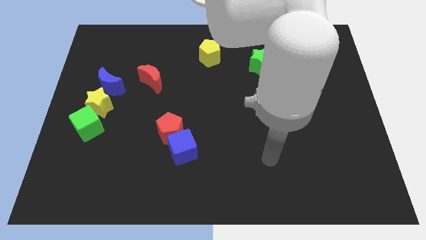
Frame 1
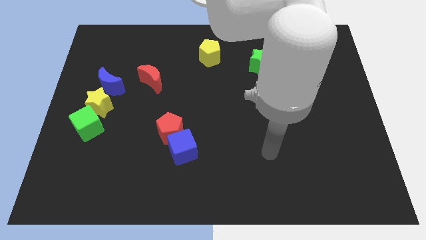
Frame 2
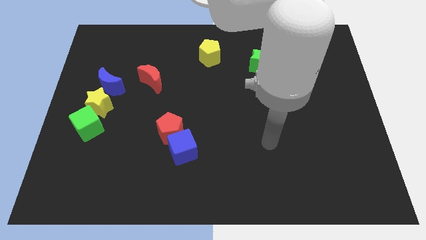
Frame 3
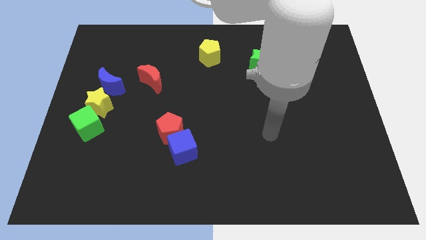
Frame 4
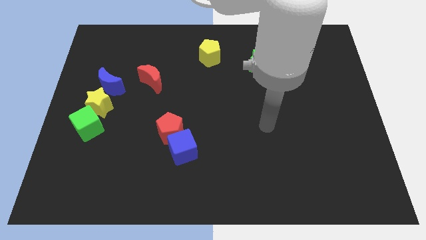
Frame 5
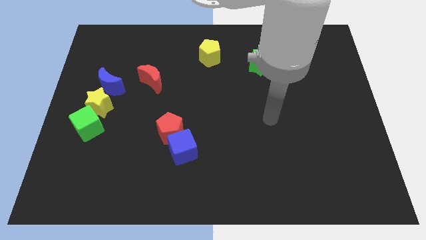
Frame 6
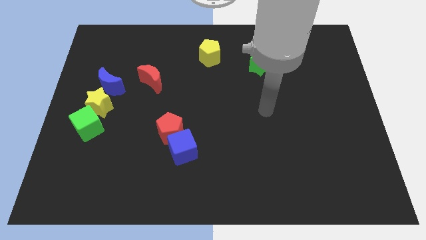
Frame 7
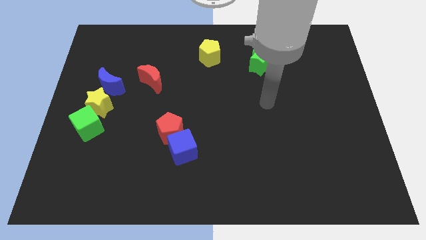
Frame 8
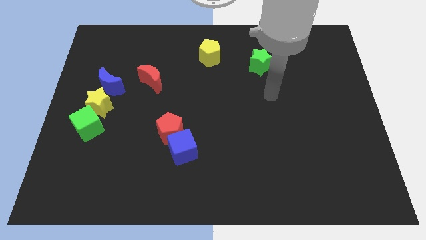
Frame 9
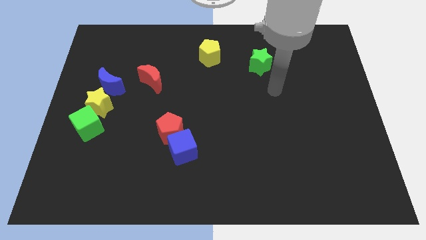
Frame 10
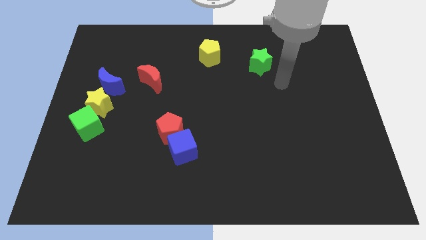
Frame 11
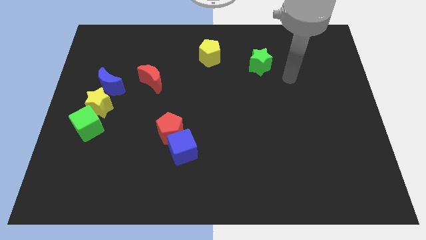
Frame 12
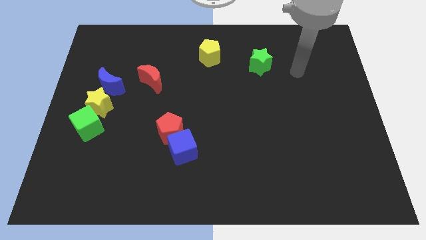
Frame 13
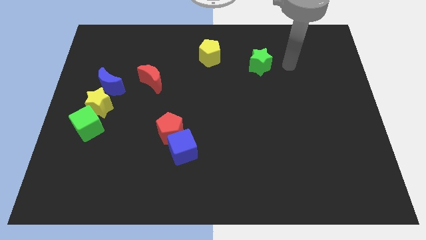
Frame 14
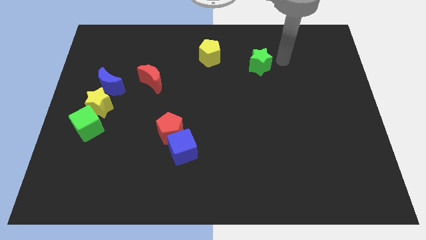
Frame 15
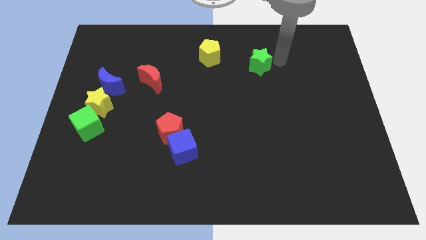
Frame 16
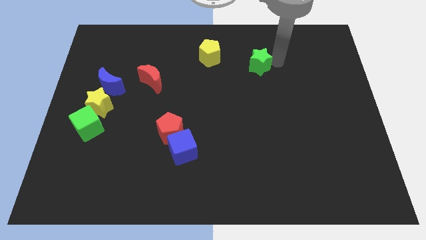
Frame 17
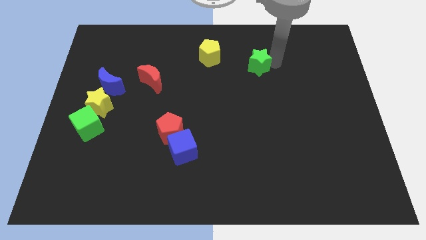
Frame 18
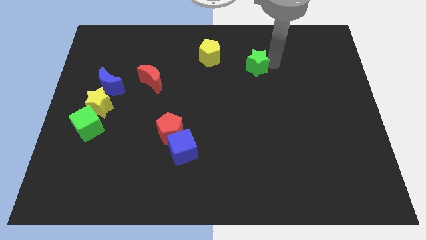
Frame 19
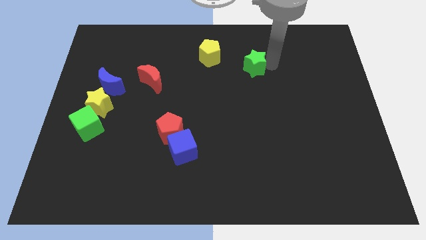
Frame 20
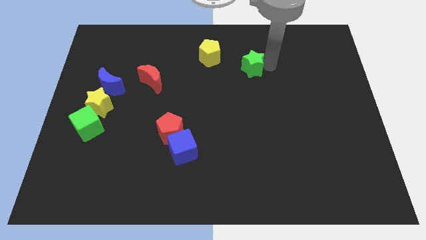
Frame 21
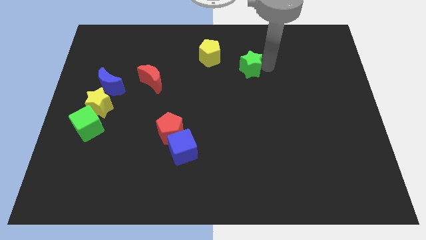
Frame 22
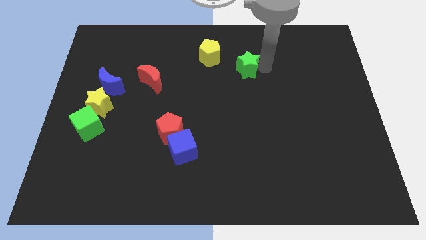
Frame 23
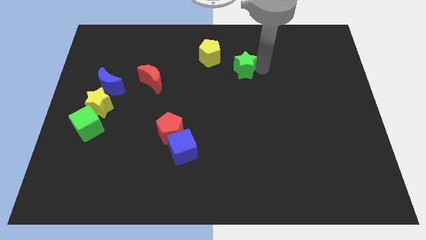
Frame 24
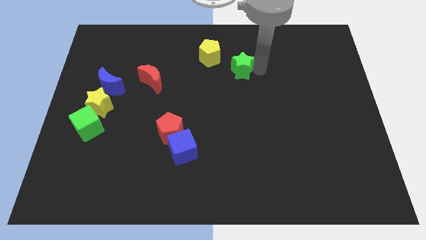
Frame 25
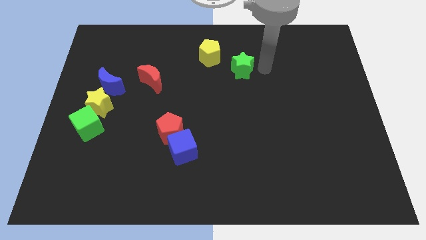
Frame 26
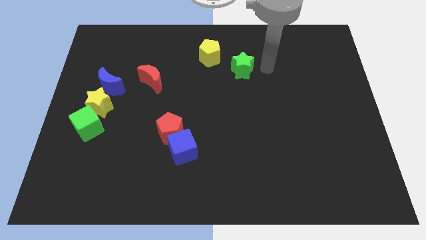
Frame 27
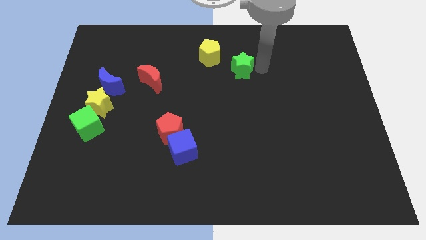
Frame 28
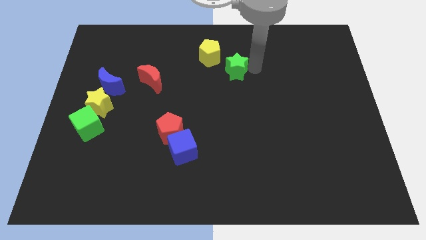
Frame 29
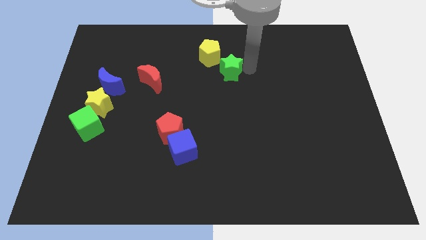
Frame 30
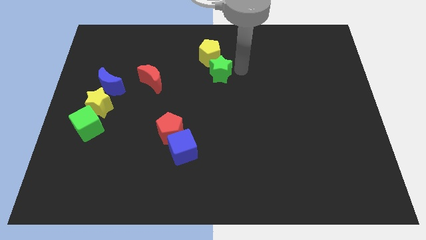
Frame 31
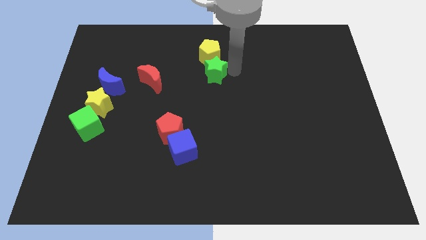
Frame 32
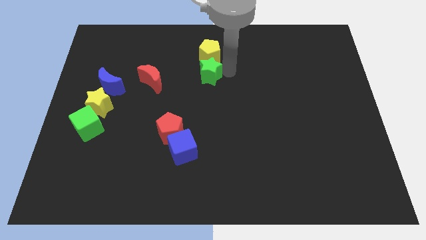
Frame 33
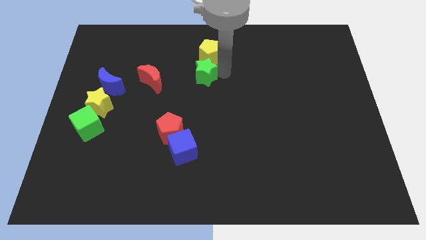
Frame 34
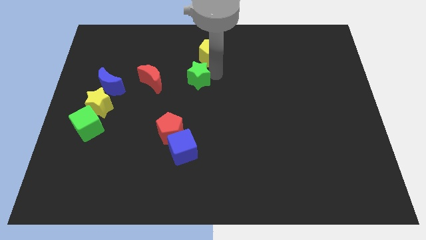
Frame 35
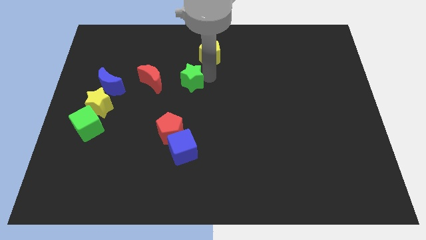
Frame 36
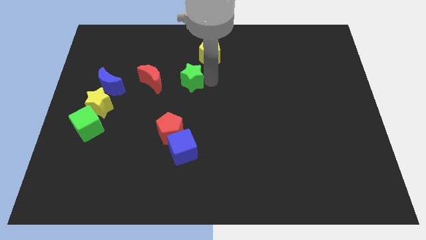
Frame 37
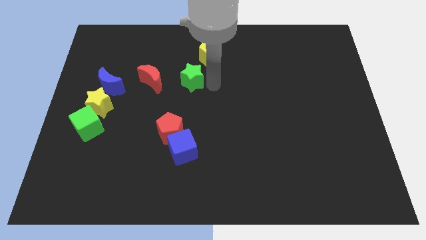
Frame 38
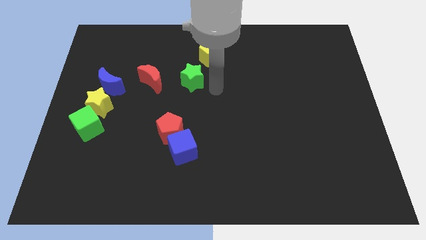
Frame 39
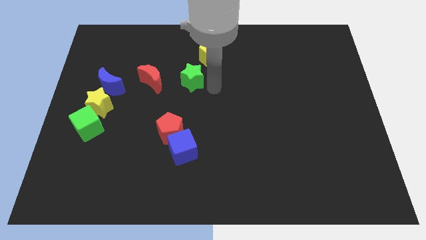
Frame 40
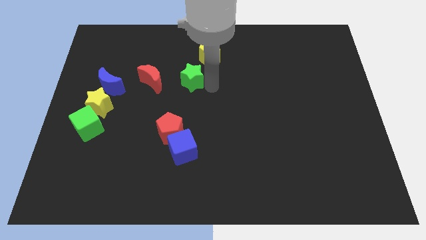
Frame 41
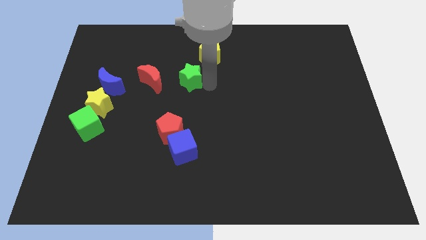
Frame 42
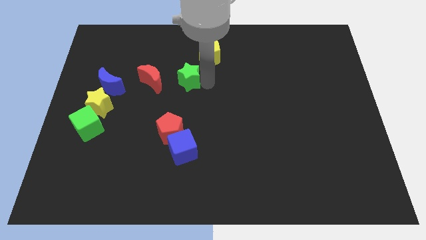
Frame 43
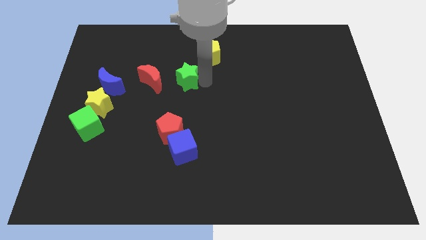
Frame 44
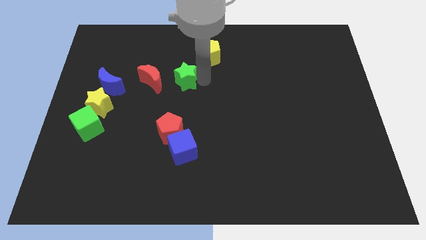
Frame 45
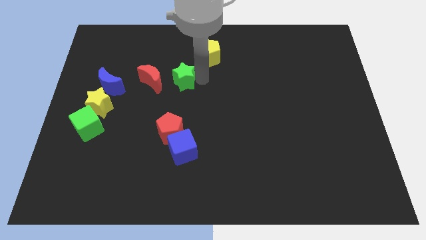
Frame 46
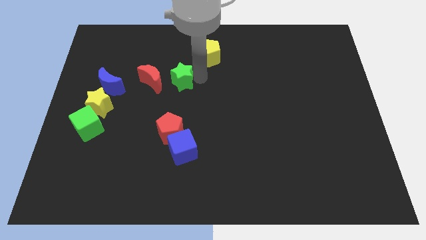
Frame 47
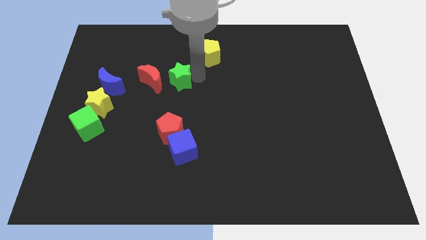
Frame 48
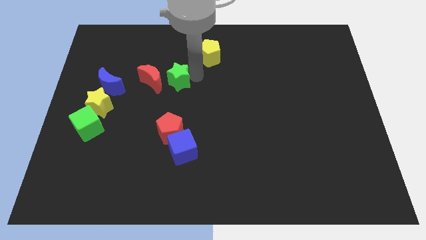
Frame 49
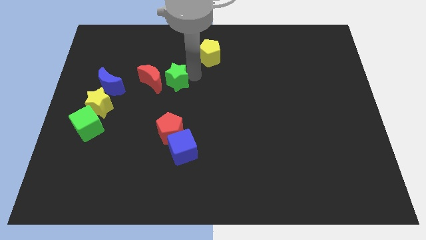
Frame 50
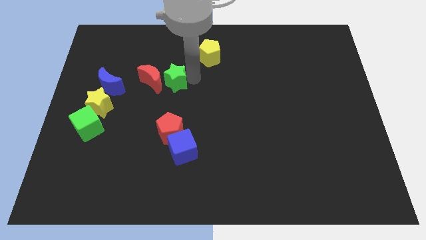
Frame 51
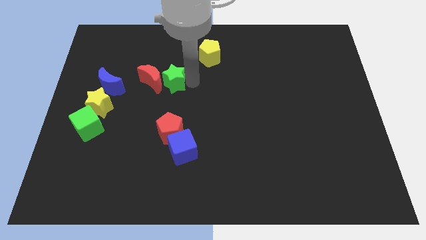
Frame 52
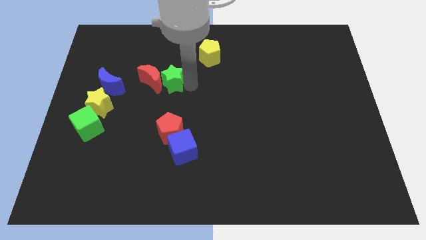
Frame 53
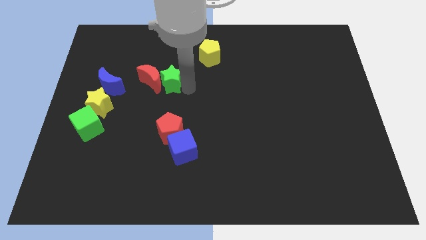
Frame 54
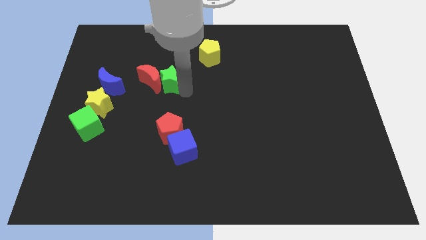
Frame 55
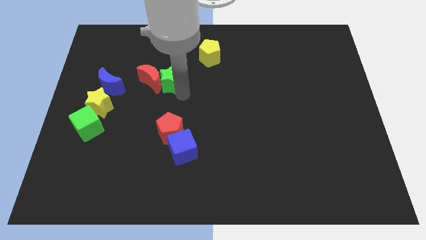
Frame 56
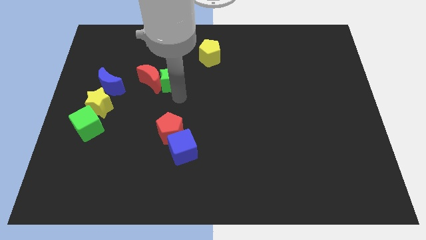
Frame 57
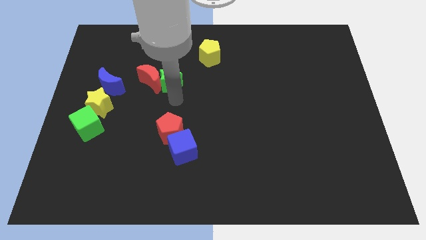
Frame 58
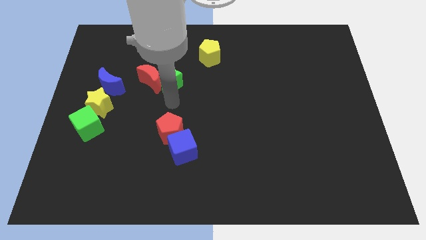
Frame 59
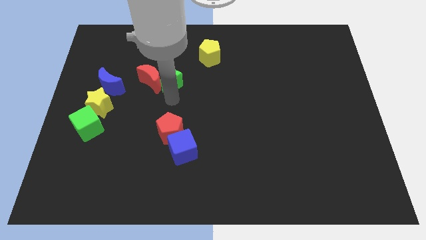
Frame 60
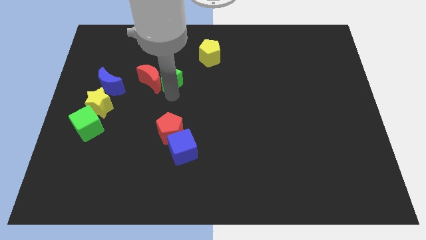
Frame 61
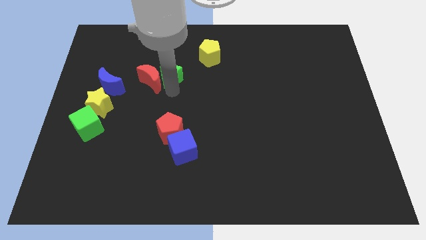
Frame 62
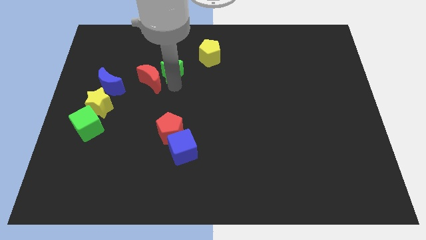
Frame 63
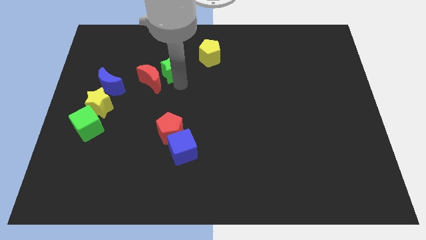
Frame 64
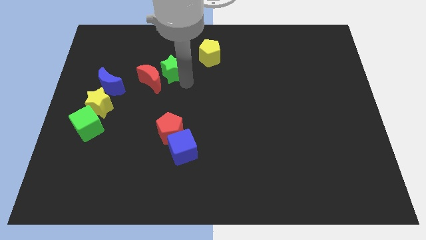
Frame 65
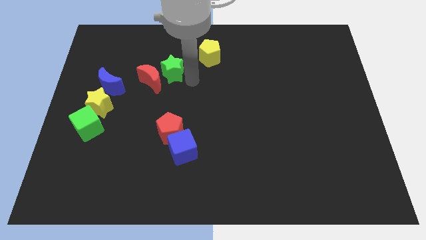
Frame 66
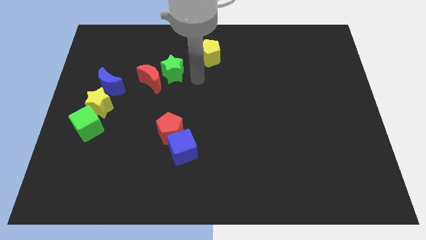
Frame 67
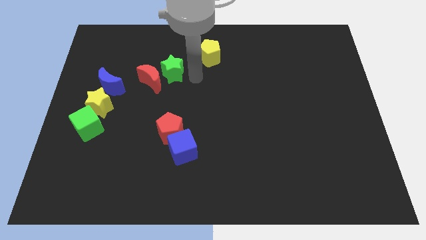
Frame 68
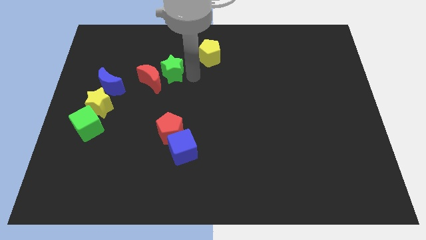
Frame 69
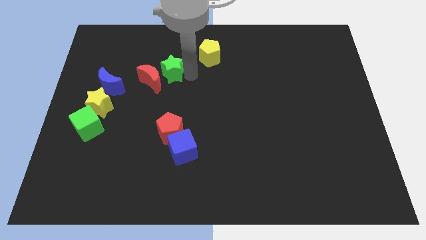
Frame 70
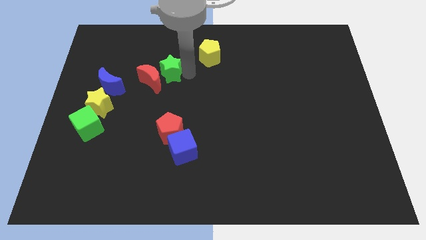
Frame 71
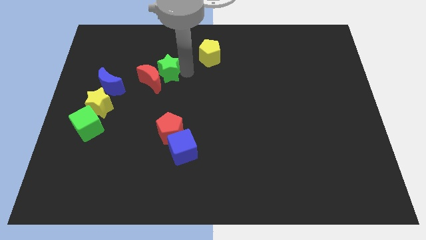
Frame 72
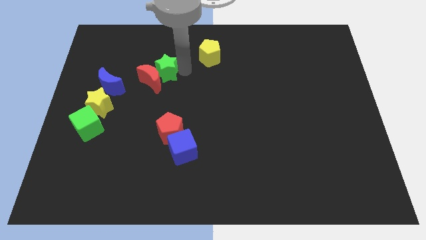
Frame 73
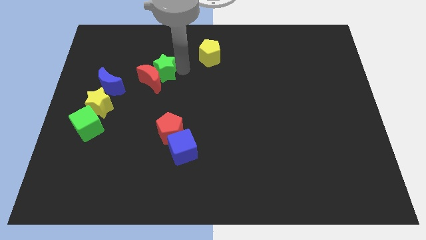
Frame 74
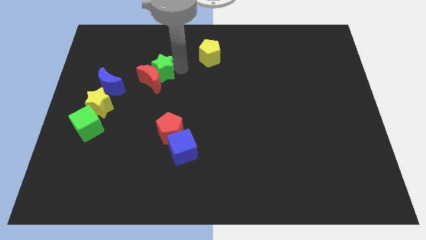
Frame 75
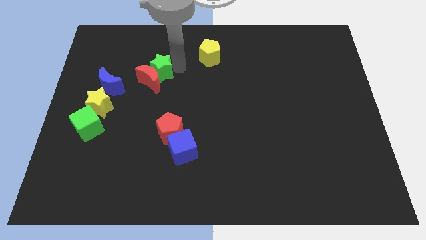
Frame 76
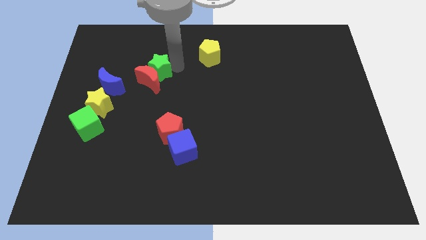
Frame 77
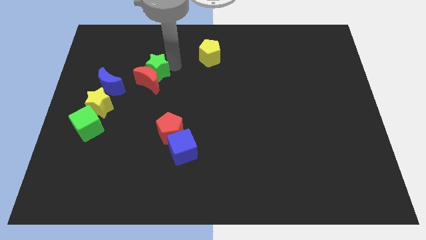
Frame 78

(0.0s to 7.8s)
push the green star to the top left side of the red moon
